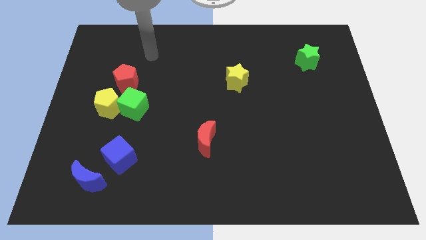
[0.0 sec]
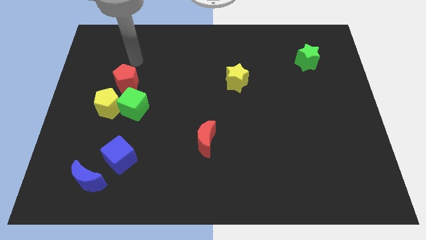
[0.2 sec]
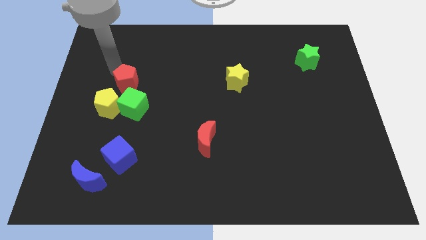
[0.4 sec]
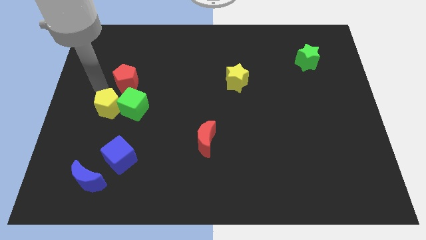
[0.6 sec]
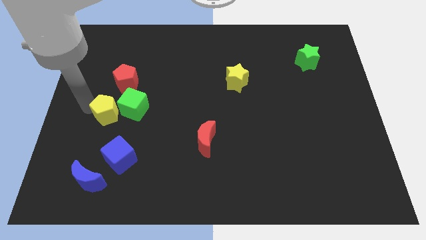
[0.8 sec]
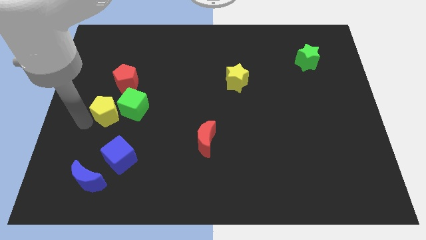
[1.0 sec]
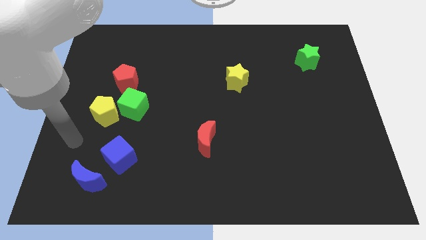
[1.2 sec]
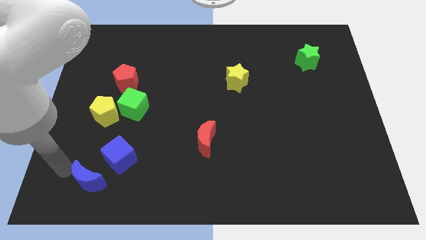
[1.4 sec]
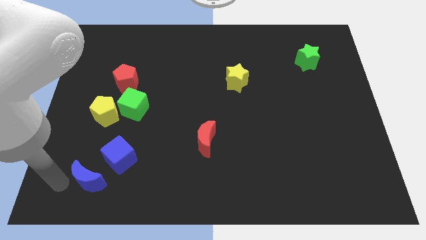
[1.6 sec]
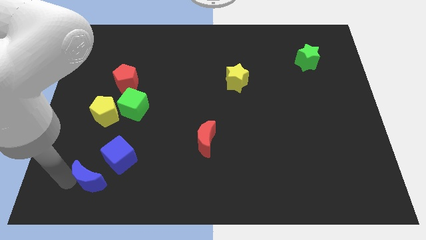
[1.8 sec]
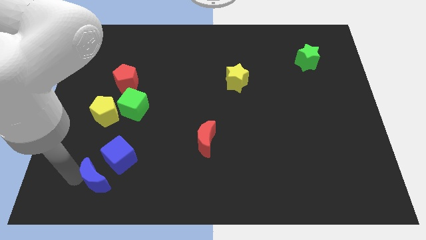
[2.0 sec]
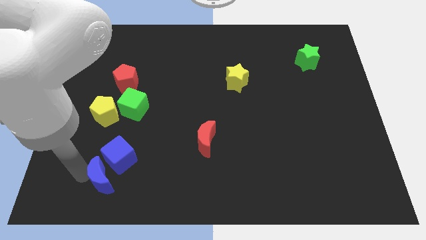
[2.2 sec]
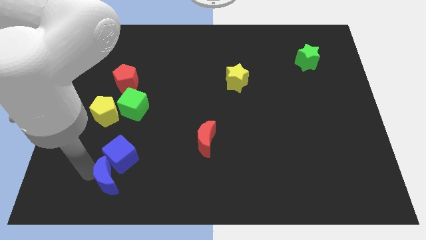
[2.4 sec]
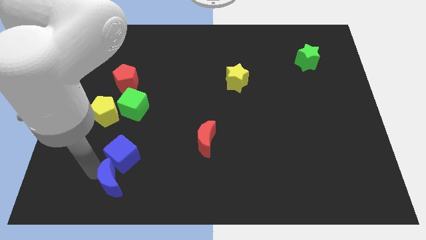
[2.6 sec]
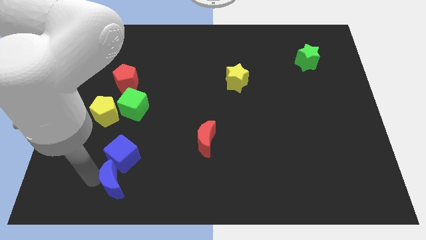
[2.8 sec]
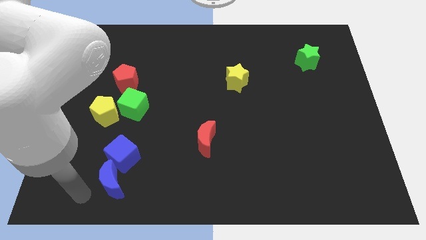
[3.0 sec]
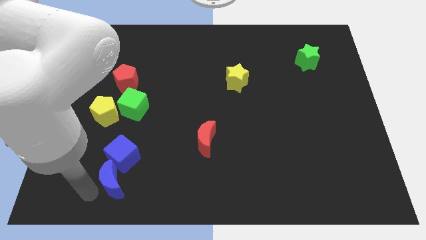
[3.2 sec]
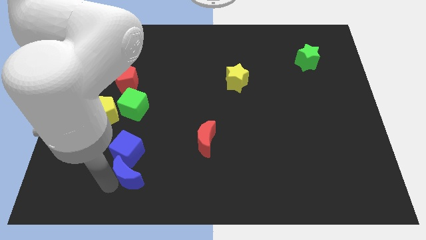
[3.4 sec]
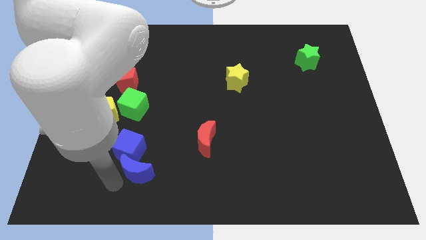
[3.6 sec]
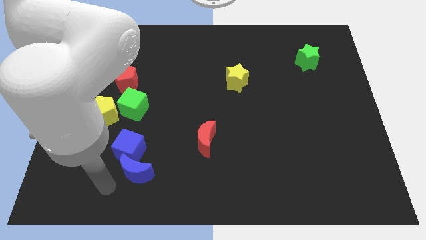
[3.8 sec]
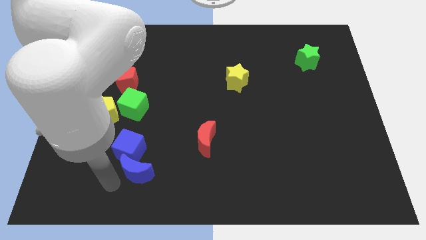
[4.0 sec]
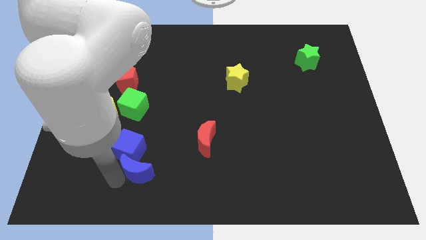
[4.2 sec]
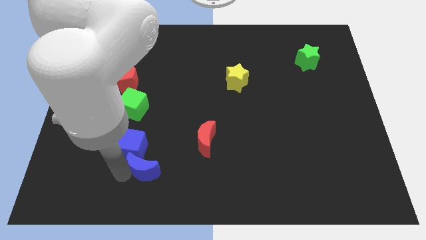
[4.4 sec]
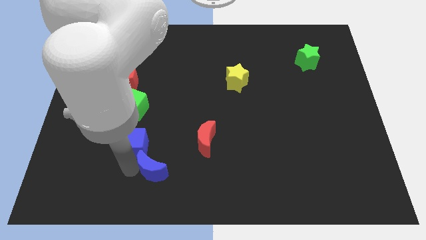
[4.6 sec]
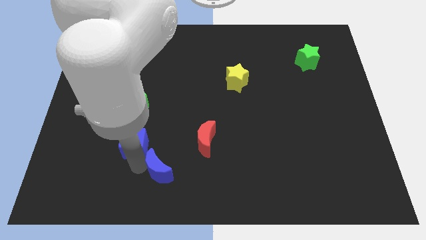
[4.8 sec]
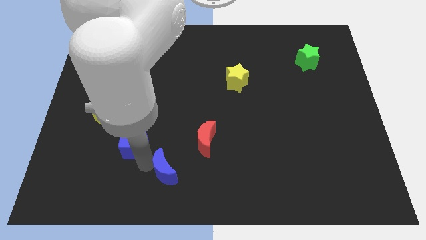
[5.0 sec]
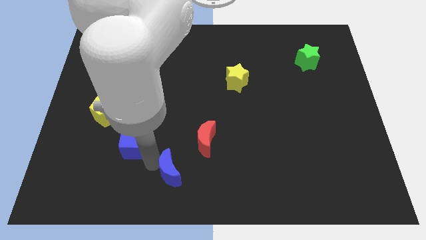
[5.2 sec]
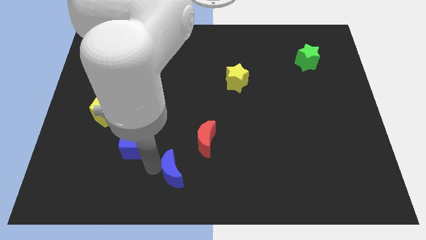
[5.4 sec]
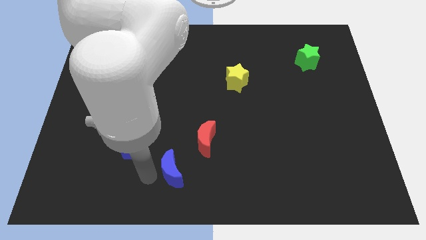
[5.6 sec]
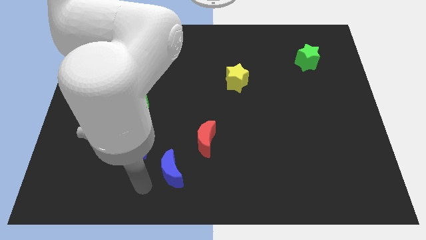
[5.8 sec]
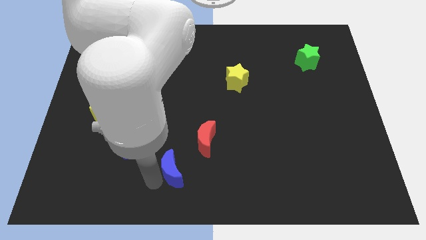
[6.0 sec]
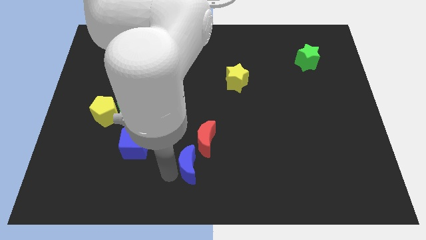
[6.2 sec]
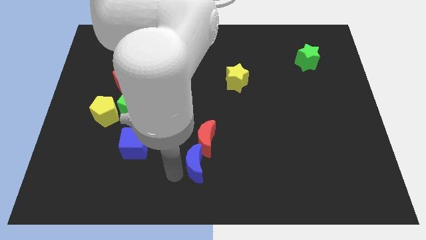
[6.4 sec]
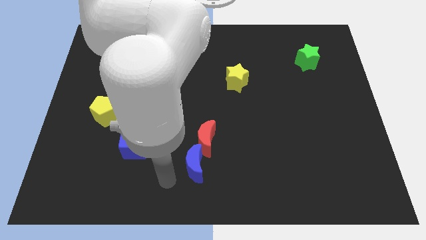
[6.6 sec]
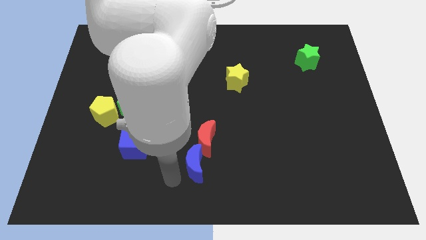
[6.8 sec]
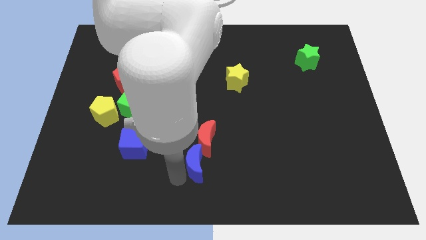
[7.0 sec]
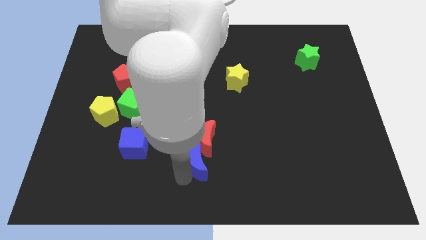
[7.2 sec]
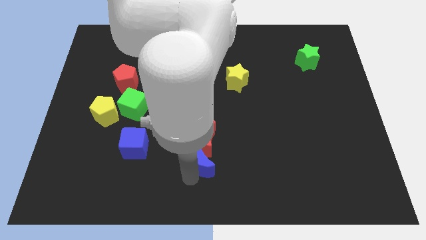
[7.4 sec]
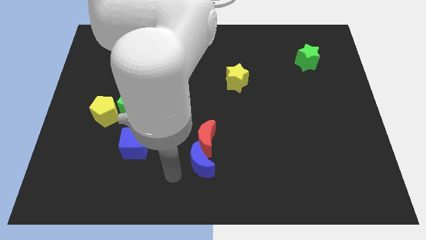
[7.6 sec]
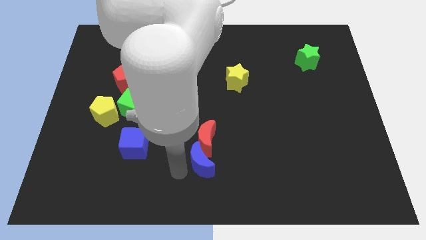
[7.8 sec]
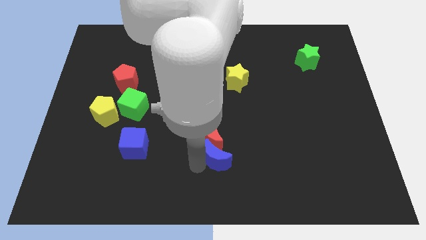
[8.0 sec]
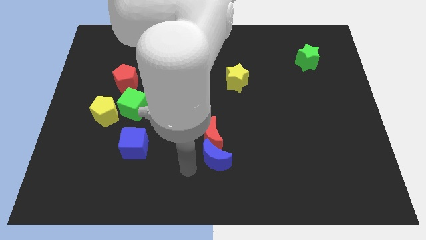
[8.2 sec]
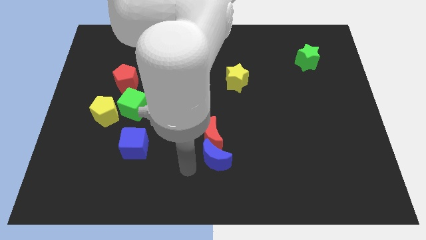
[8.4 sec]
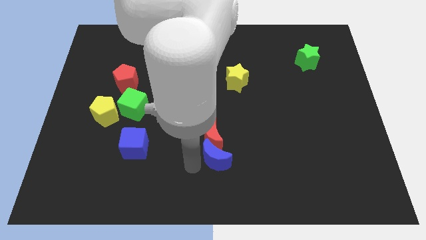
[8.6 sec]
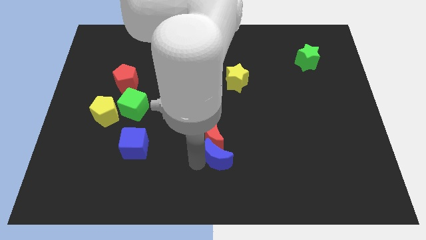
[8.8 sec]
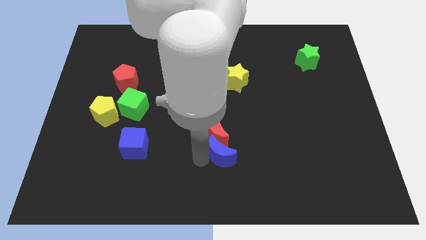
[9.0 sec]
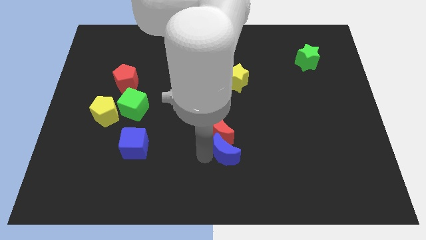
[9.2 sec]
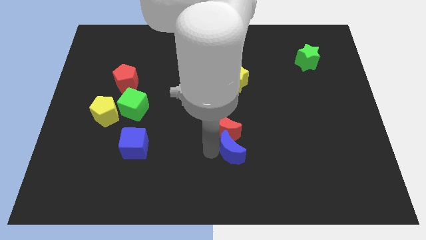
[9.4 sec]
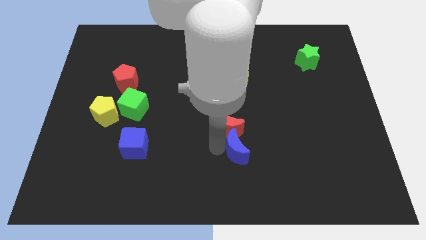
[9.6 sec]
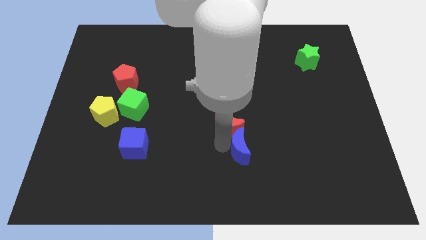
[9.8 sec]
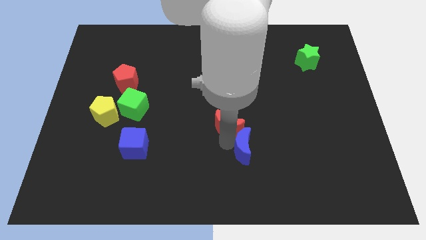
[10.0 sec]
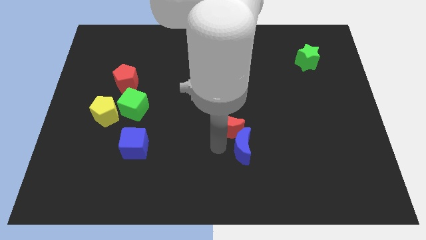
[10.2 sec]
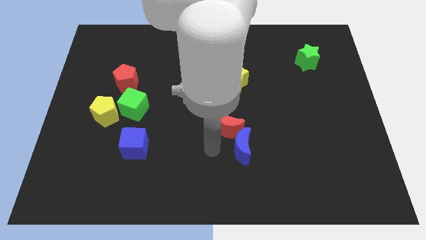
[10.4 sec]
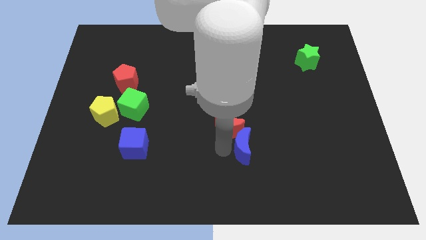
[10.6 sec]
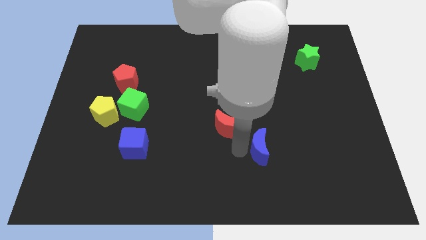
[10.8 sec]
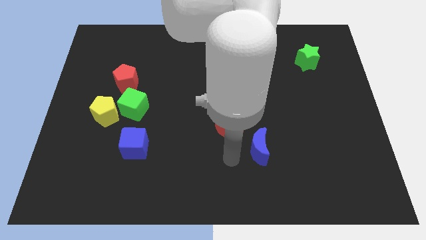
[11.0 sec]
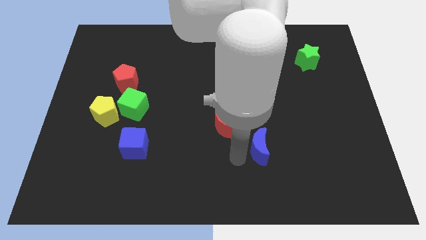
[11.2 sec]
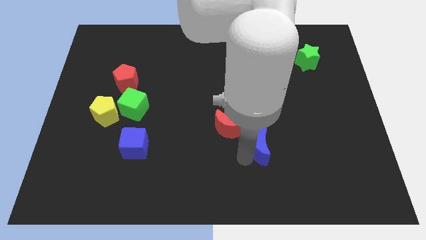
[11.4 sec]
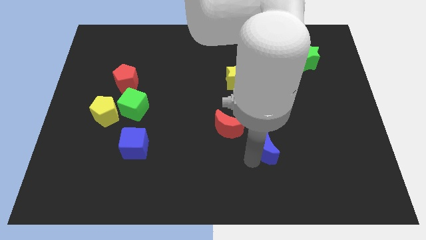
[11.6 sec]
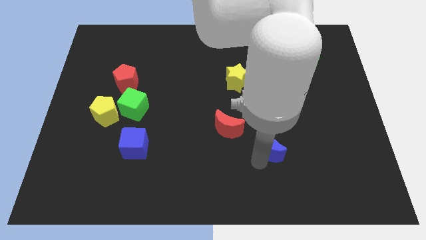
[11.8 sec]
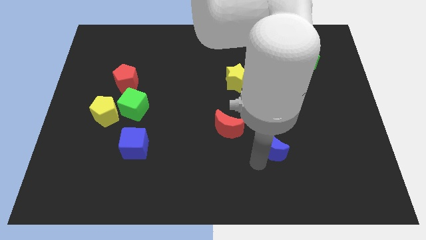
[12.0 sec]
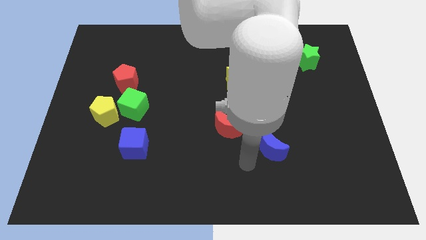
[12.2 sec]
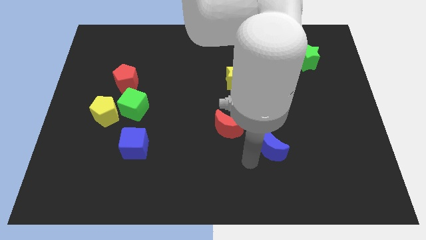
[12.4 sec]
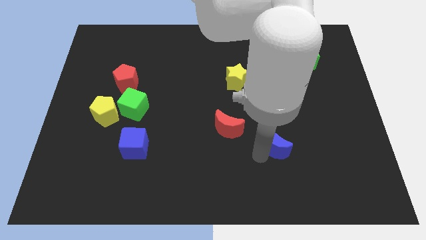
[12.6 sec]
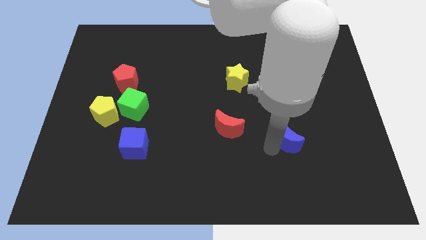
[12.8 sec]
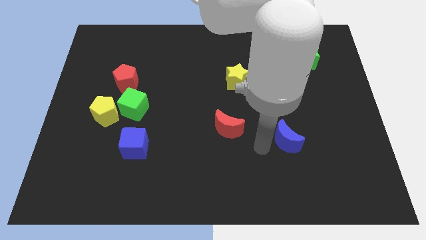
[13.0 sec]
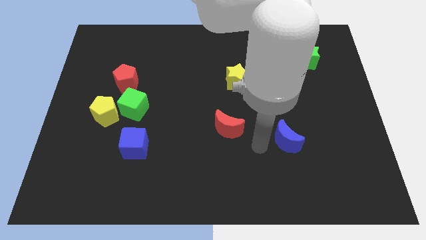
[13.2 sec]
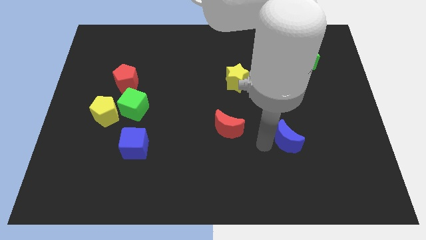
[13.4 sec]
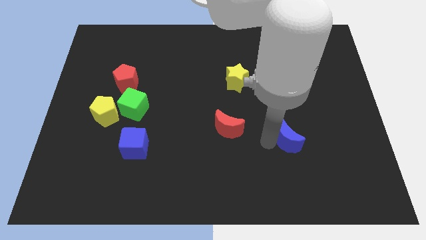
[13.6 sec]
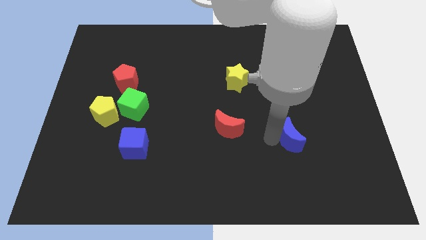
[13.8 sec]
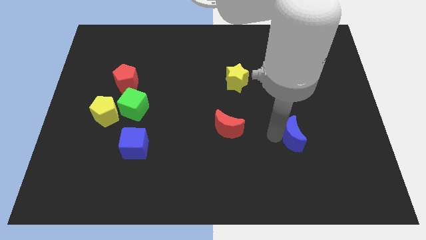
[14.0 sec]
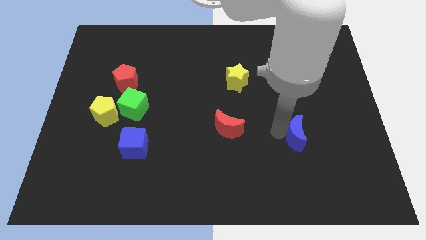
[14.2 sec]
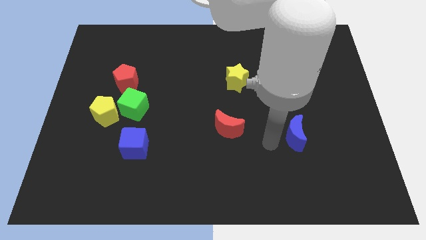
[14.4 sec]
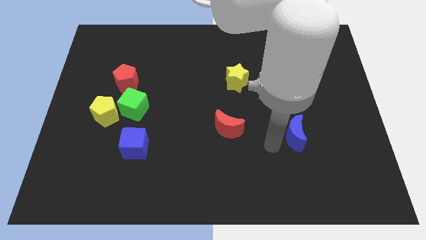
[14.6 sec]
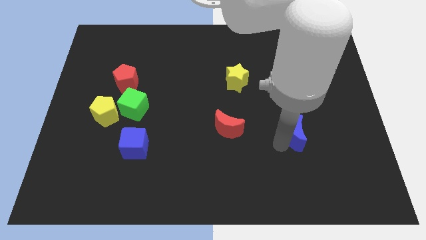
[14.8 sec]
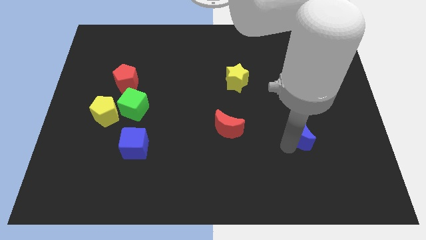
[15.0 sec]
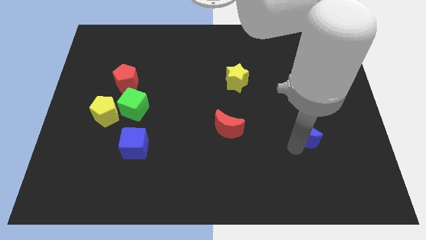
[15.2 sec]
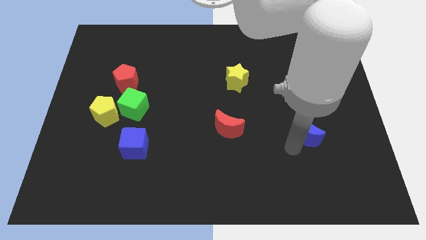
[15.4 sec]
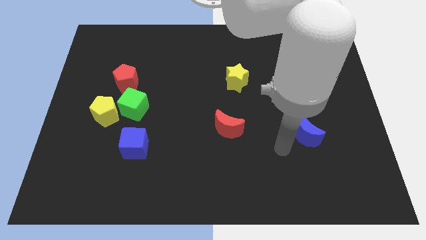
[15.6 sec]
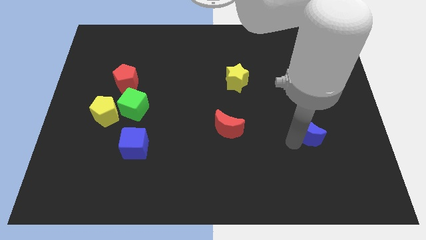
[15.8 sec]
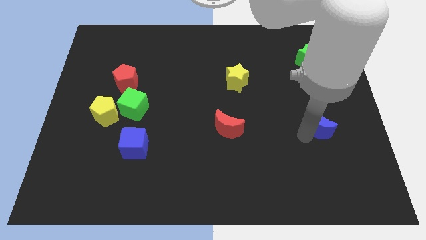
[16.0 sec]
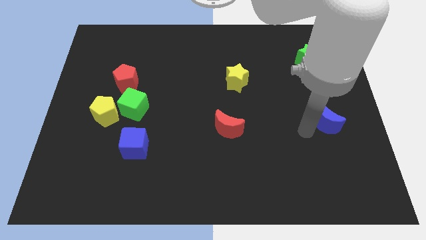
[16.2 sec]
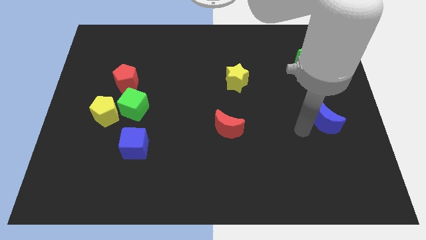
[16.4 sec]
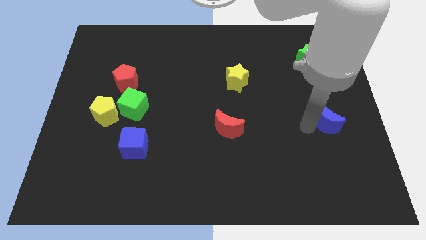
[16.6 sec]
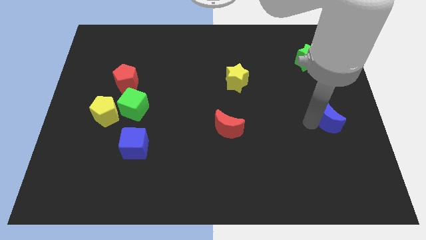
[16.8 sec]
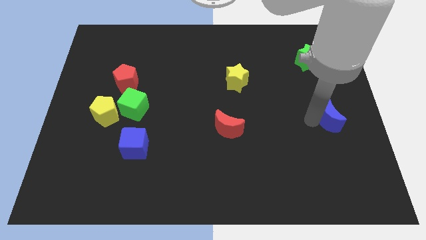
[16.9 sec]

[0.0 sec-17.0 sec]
put the blue moon to the right side
